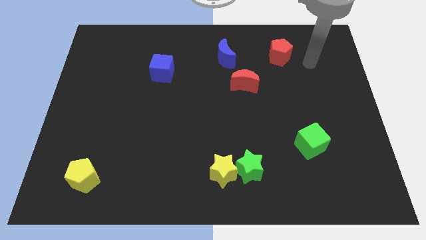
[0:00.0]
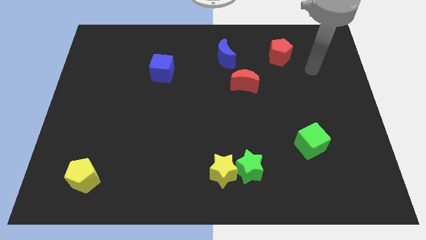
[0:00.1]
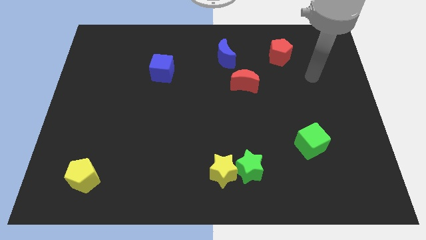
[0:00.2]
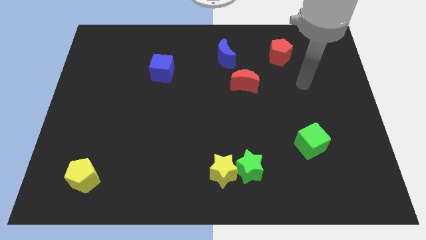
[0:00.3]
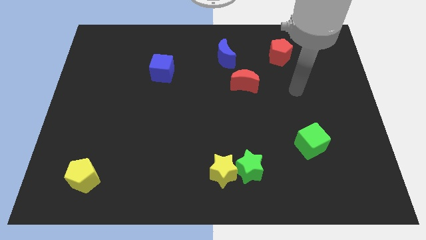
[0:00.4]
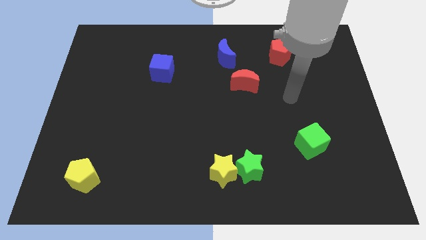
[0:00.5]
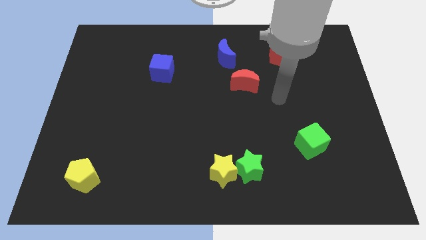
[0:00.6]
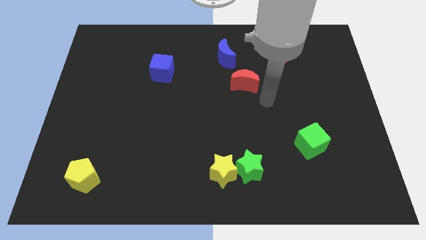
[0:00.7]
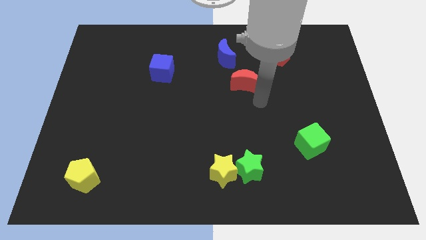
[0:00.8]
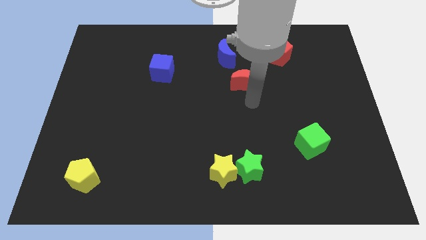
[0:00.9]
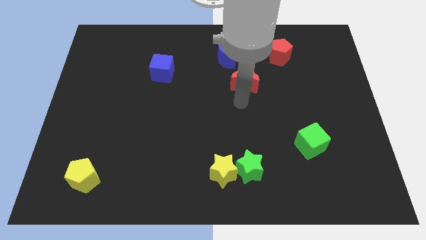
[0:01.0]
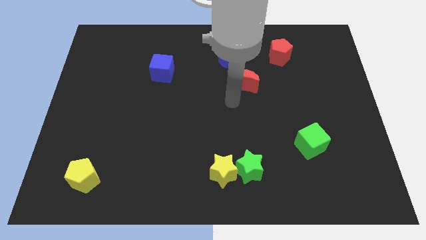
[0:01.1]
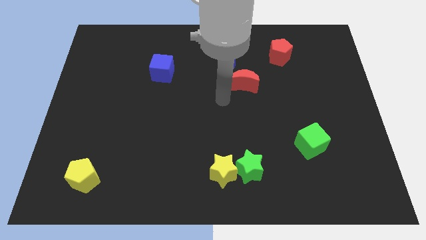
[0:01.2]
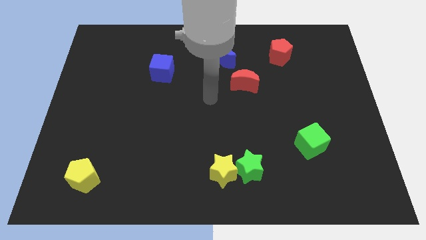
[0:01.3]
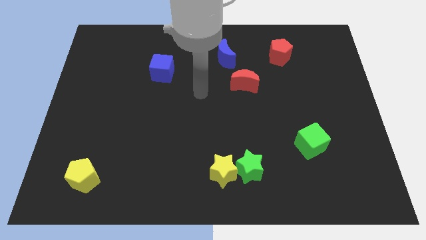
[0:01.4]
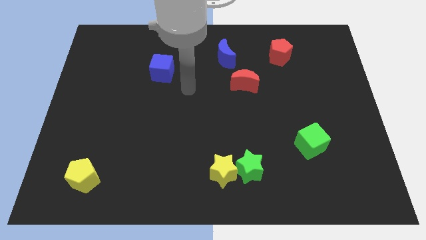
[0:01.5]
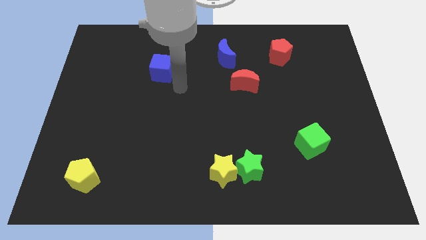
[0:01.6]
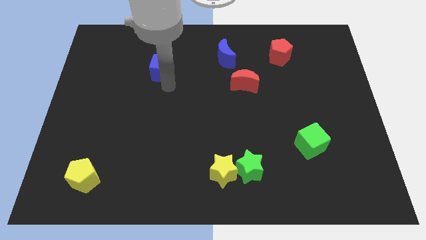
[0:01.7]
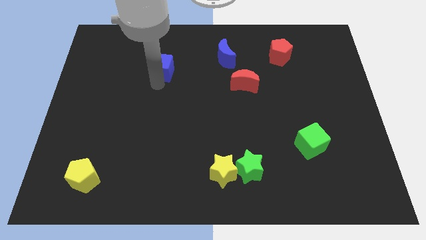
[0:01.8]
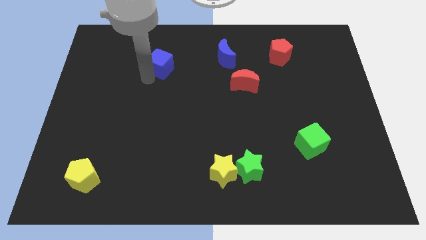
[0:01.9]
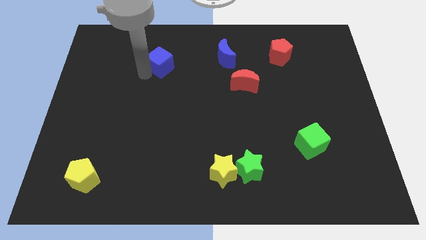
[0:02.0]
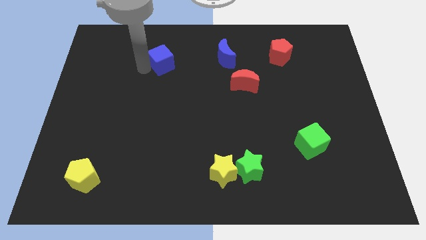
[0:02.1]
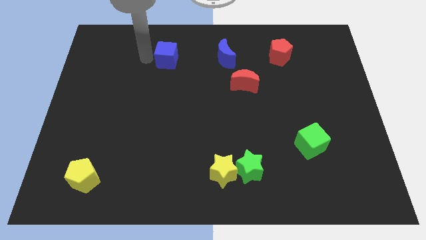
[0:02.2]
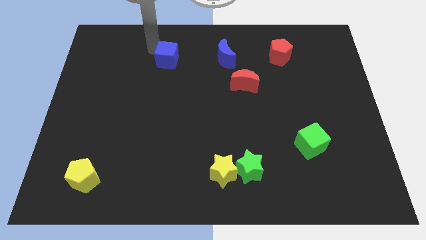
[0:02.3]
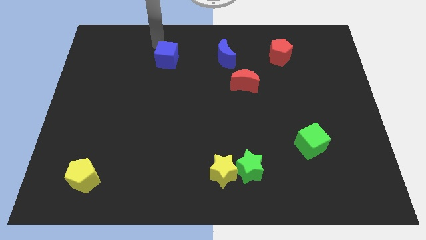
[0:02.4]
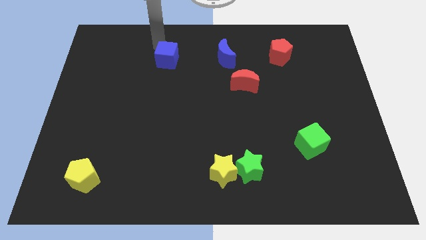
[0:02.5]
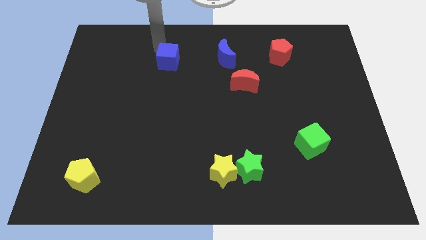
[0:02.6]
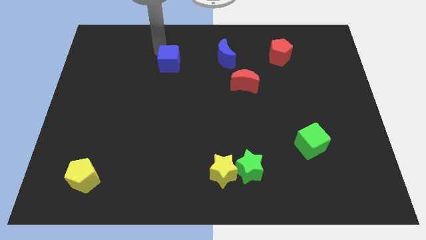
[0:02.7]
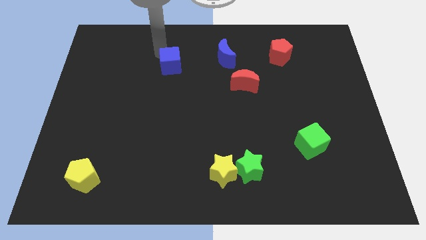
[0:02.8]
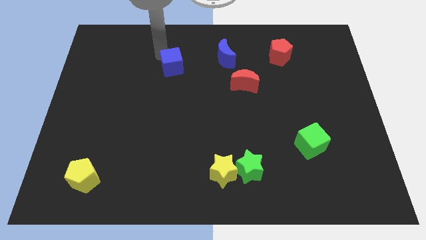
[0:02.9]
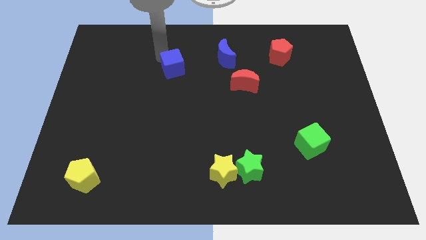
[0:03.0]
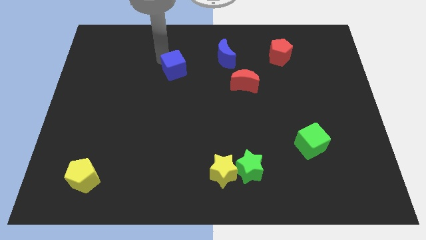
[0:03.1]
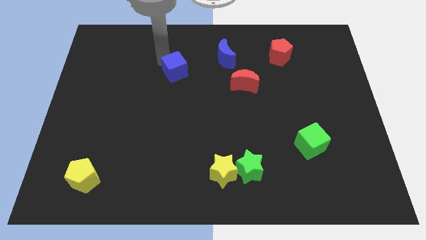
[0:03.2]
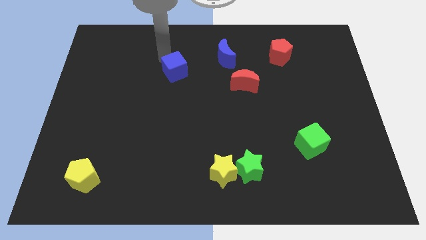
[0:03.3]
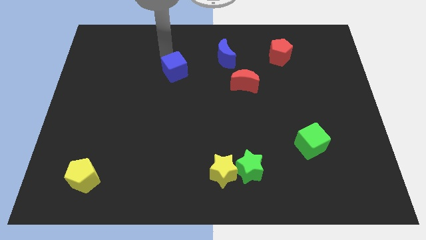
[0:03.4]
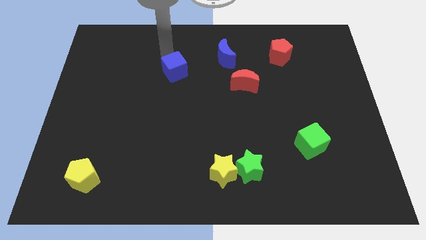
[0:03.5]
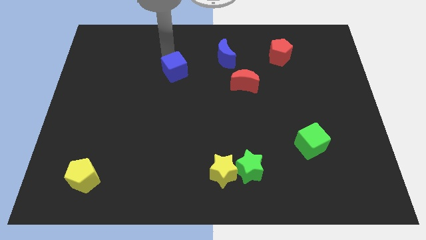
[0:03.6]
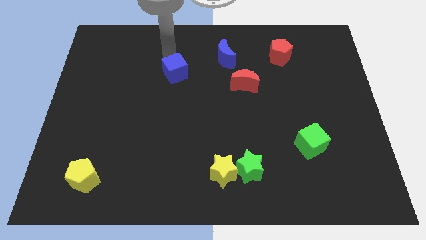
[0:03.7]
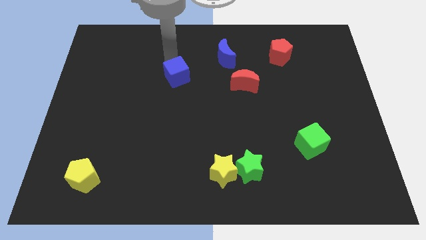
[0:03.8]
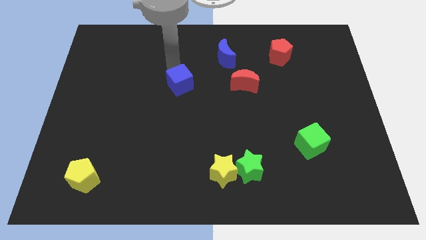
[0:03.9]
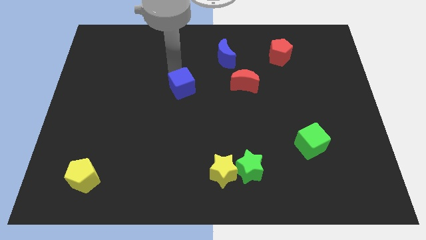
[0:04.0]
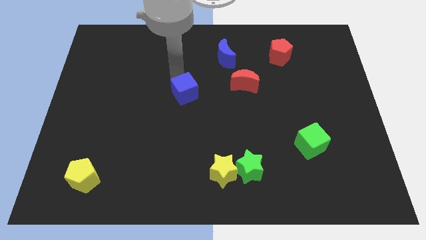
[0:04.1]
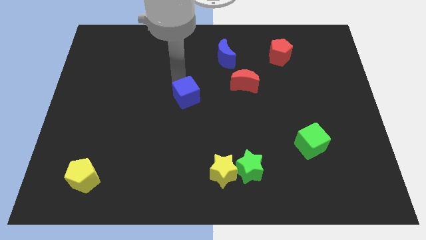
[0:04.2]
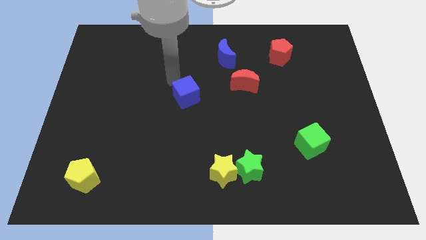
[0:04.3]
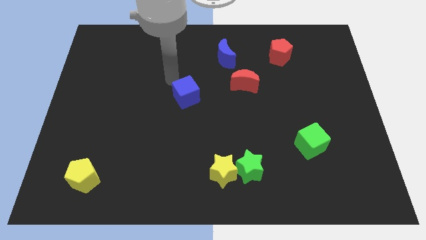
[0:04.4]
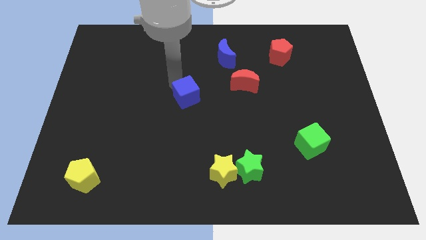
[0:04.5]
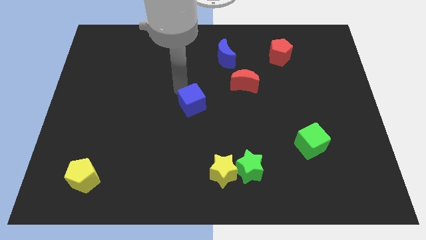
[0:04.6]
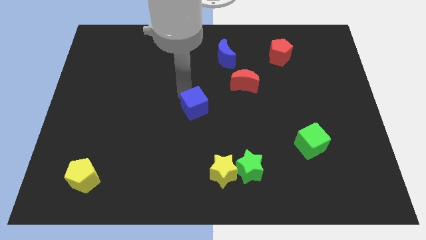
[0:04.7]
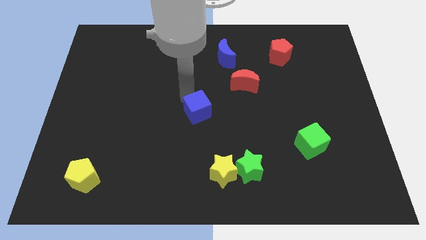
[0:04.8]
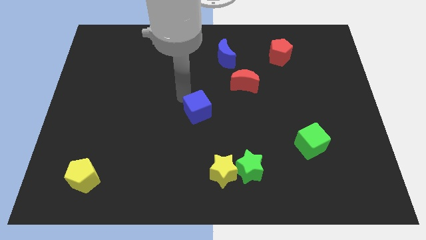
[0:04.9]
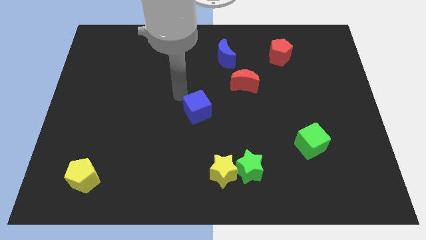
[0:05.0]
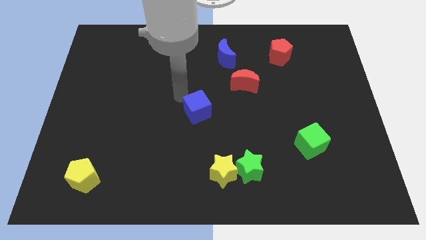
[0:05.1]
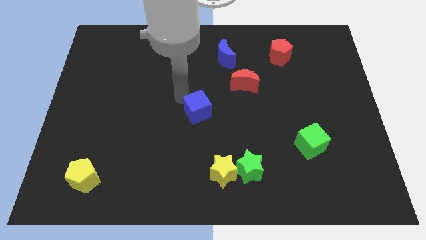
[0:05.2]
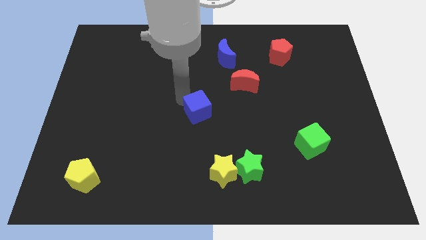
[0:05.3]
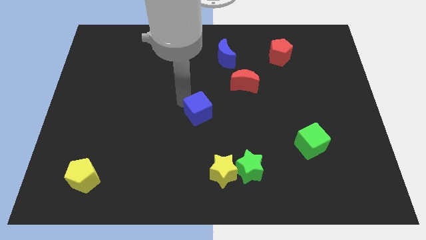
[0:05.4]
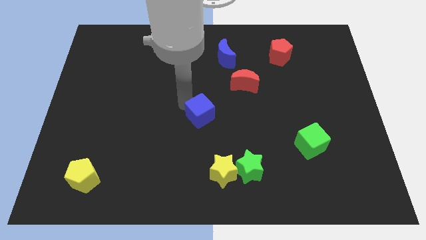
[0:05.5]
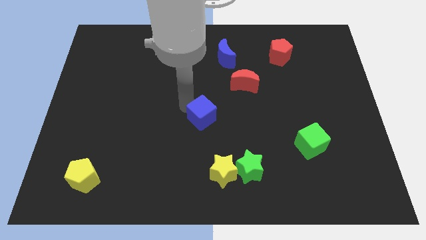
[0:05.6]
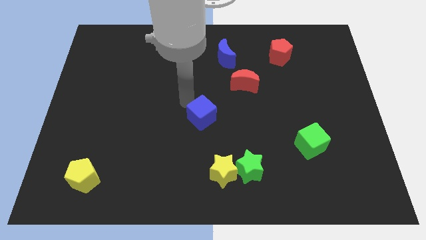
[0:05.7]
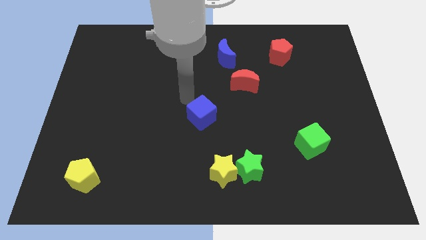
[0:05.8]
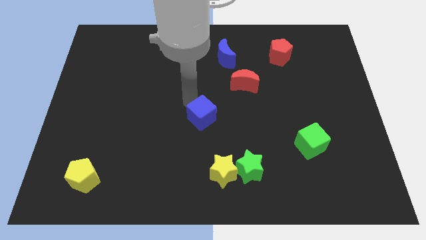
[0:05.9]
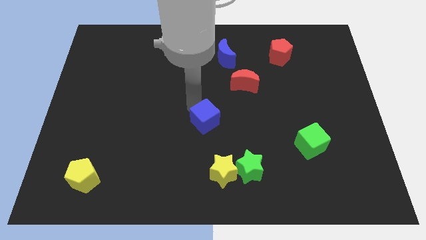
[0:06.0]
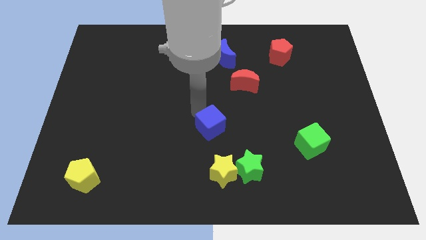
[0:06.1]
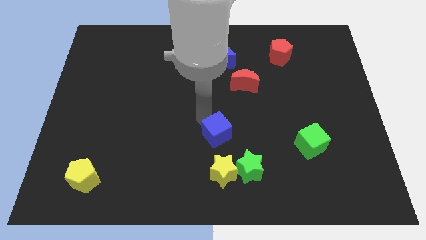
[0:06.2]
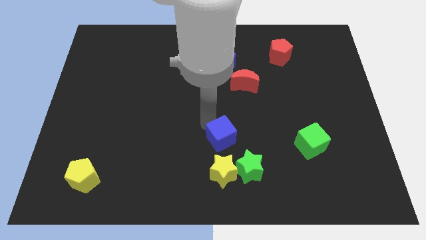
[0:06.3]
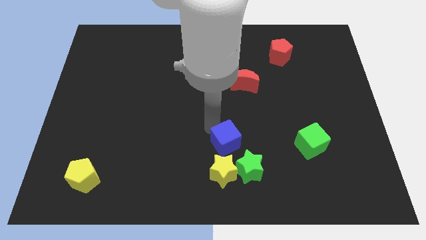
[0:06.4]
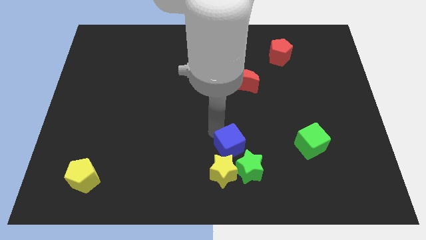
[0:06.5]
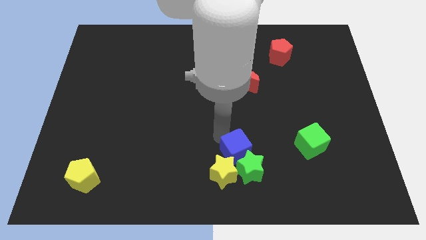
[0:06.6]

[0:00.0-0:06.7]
put the blue cube next to the green star
